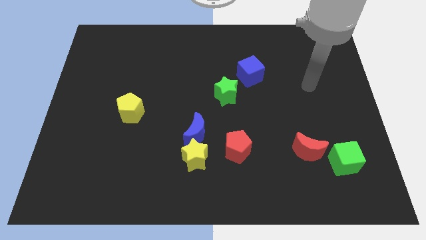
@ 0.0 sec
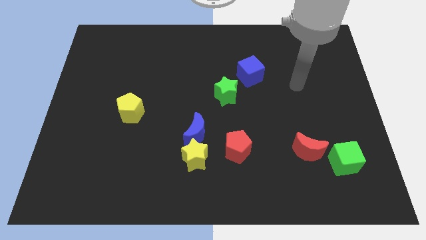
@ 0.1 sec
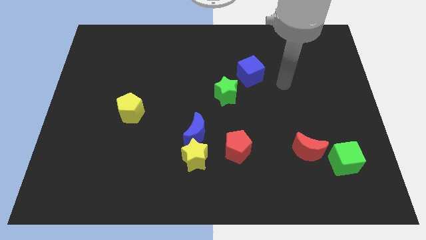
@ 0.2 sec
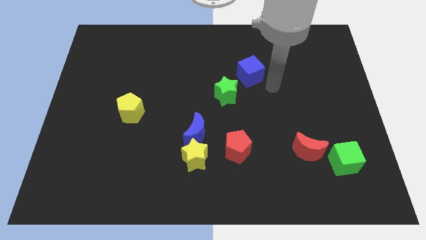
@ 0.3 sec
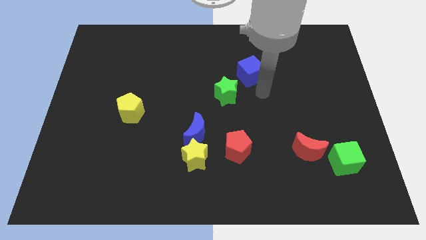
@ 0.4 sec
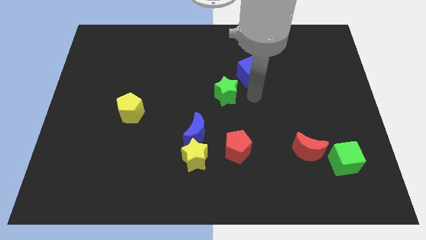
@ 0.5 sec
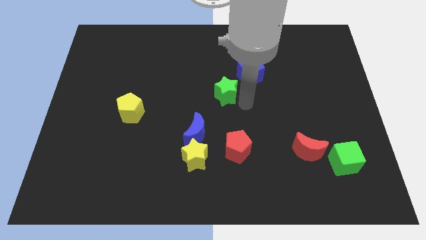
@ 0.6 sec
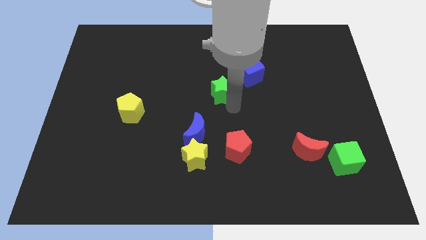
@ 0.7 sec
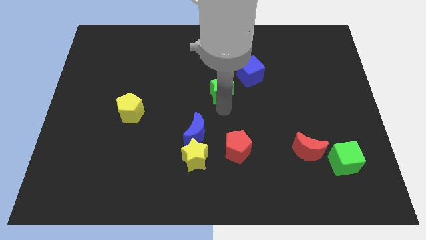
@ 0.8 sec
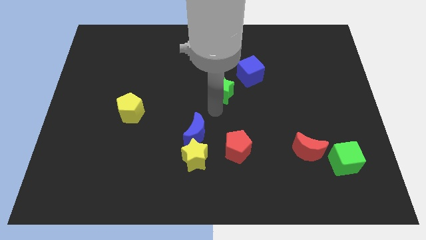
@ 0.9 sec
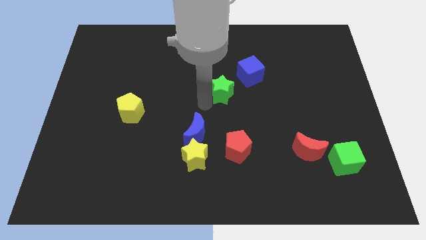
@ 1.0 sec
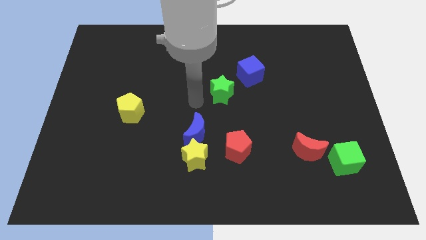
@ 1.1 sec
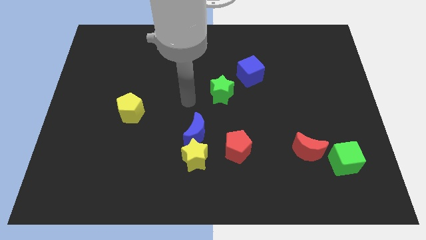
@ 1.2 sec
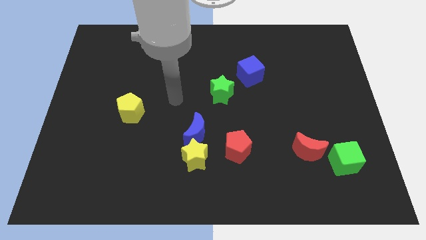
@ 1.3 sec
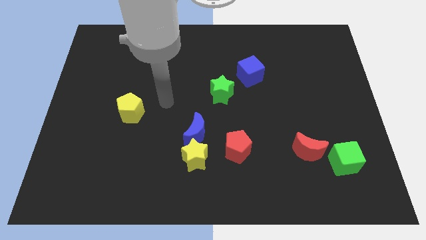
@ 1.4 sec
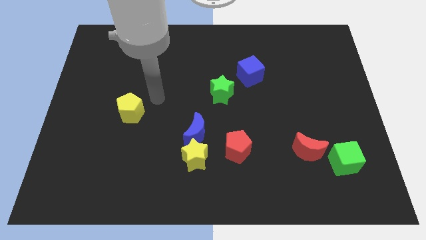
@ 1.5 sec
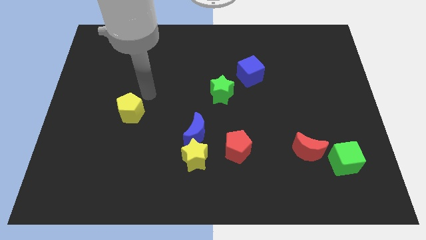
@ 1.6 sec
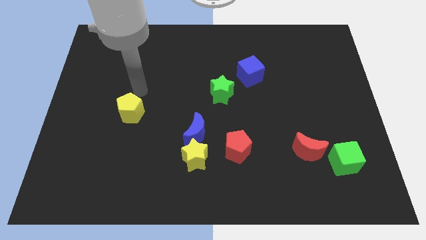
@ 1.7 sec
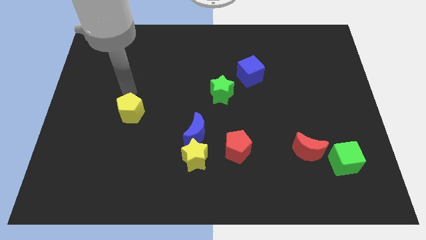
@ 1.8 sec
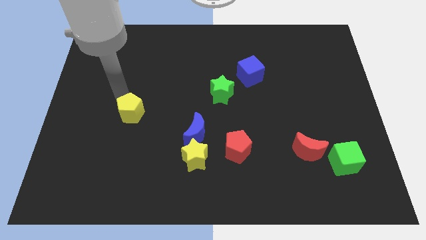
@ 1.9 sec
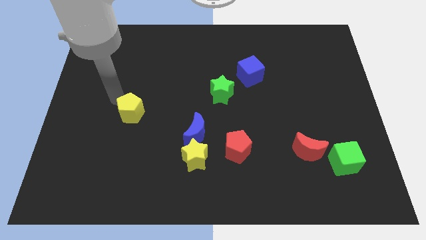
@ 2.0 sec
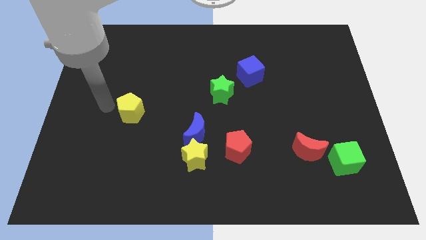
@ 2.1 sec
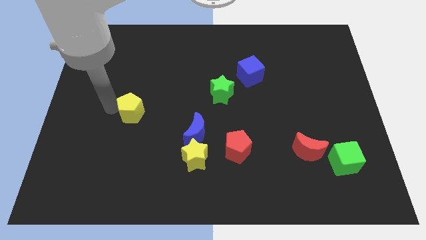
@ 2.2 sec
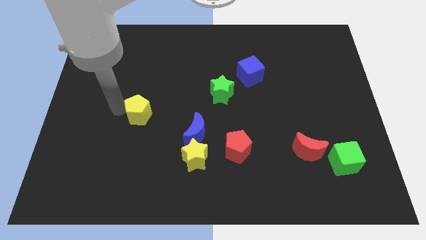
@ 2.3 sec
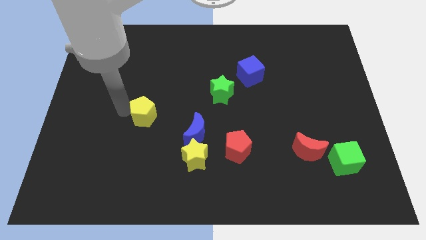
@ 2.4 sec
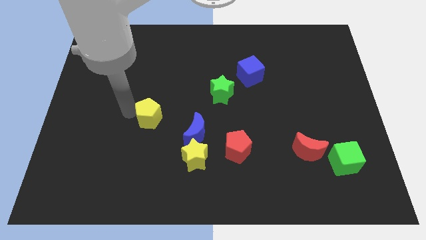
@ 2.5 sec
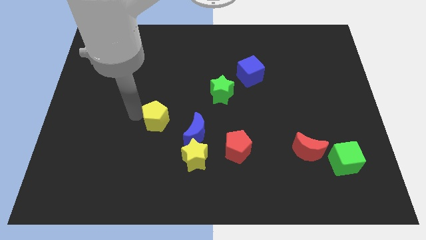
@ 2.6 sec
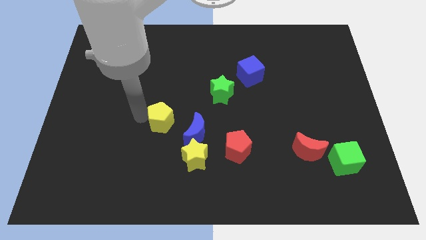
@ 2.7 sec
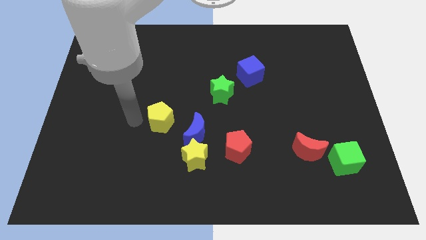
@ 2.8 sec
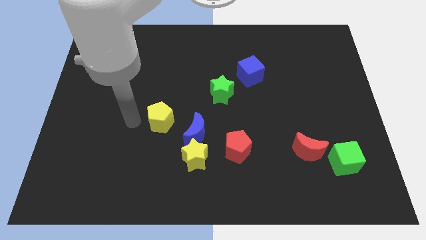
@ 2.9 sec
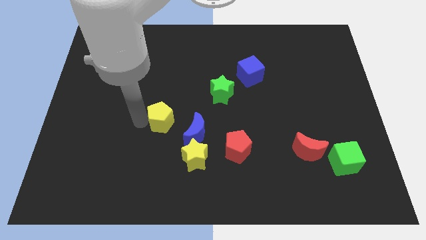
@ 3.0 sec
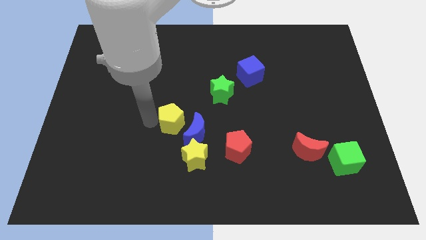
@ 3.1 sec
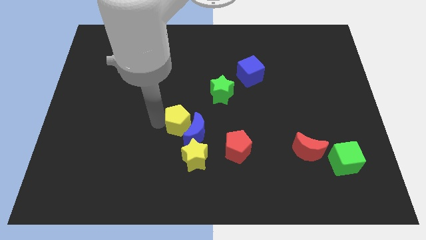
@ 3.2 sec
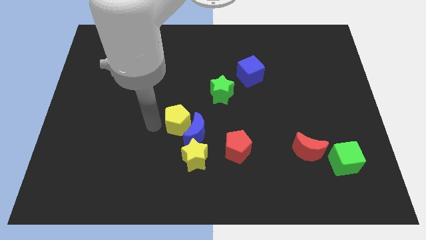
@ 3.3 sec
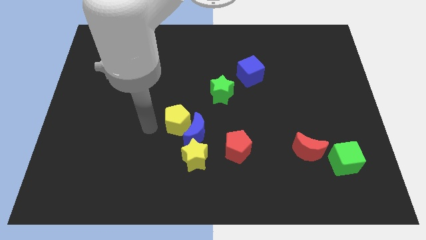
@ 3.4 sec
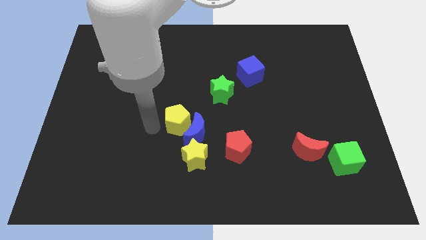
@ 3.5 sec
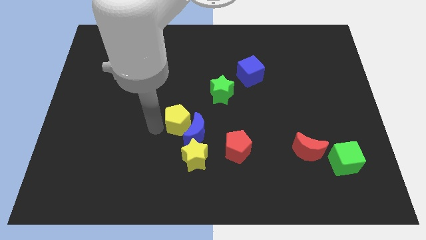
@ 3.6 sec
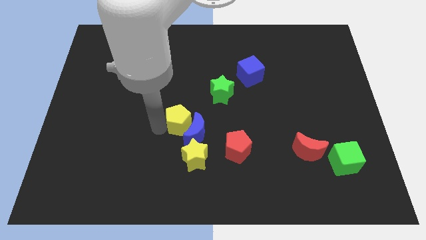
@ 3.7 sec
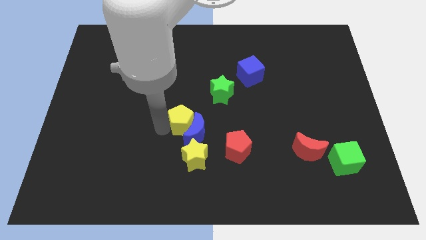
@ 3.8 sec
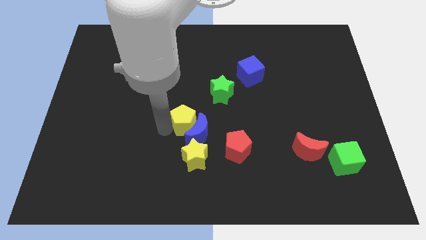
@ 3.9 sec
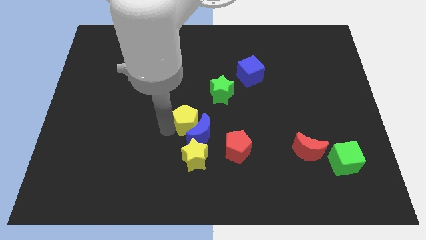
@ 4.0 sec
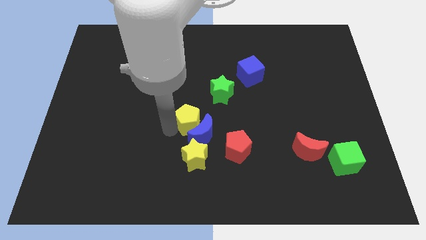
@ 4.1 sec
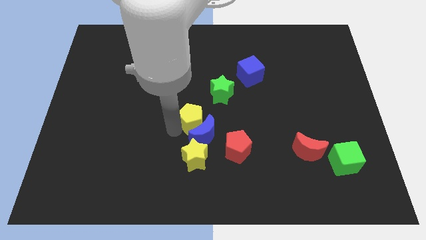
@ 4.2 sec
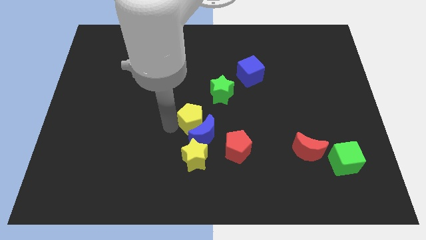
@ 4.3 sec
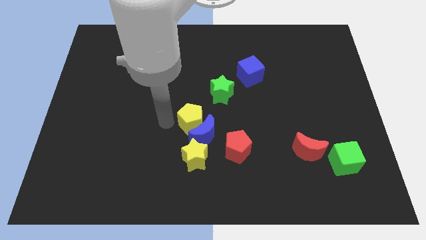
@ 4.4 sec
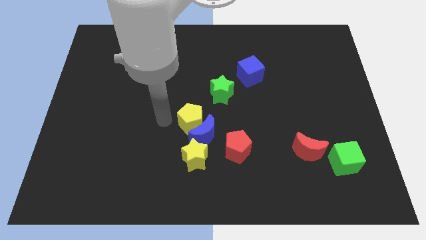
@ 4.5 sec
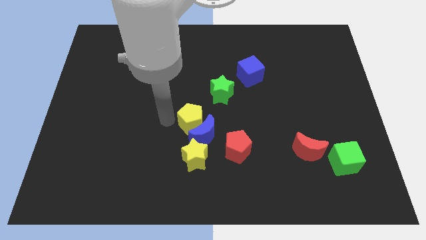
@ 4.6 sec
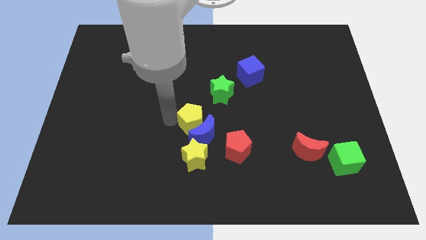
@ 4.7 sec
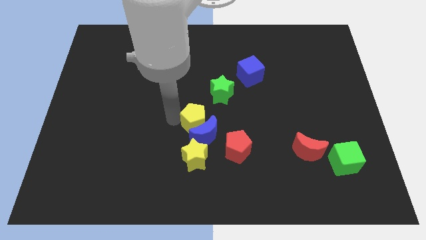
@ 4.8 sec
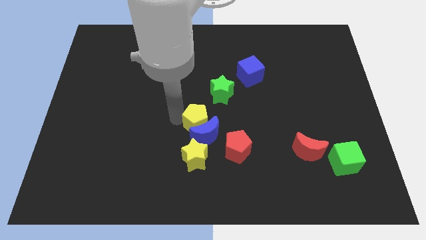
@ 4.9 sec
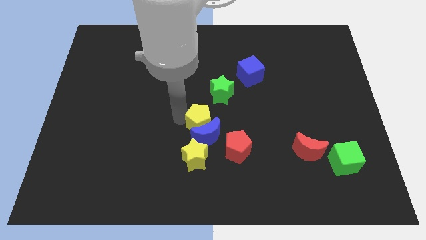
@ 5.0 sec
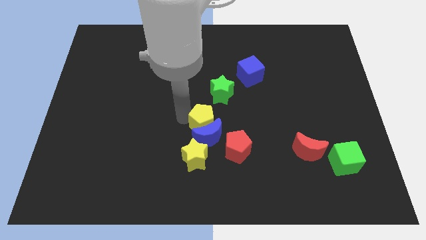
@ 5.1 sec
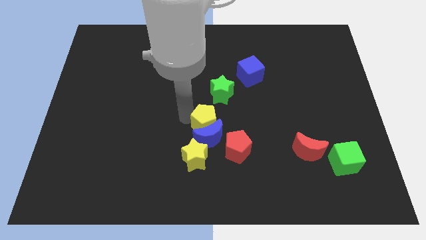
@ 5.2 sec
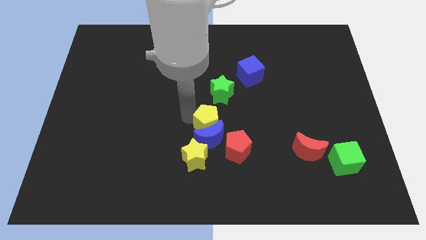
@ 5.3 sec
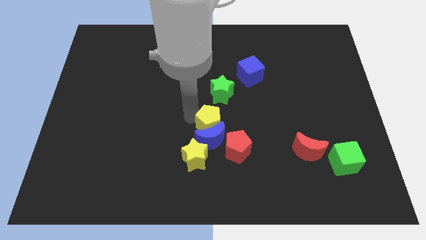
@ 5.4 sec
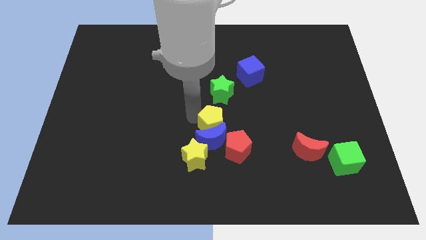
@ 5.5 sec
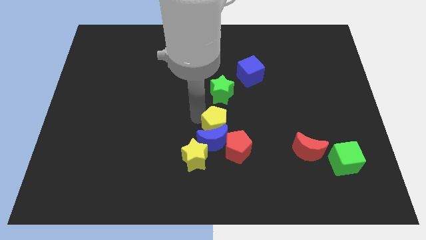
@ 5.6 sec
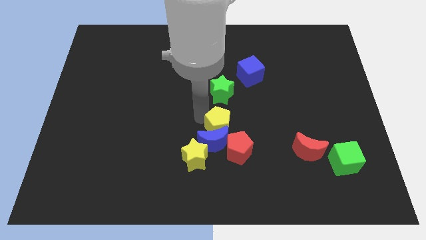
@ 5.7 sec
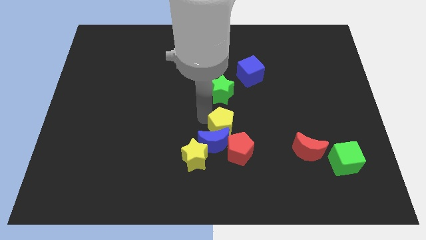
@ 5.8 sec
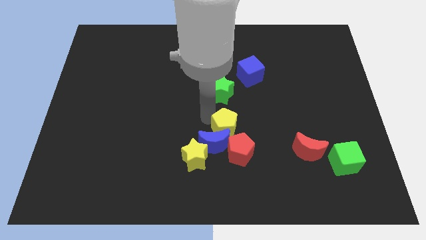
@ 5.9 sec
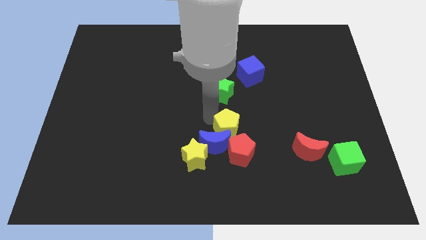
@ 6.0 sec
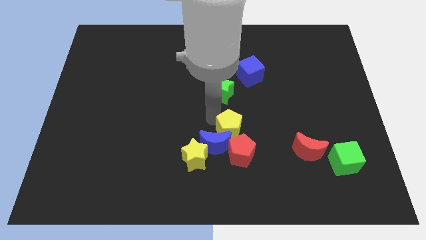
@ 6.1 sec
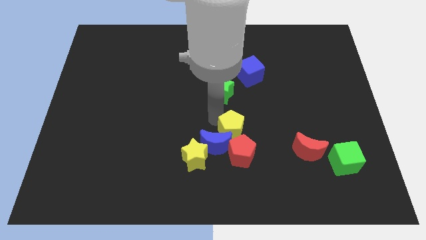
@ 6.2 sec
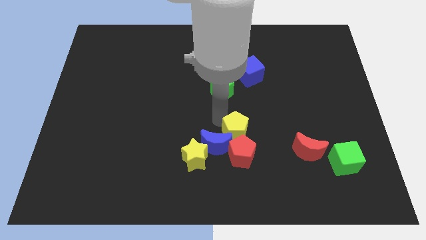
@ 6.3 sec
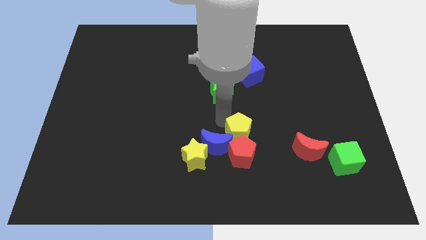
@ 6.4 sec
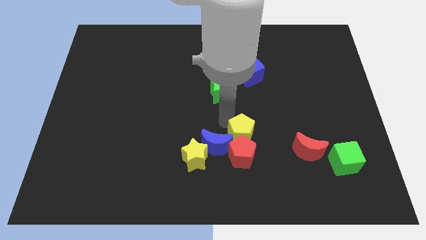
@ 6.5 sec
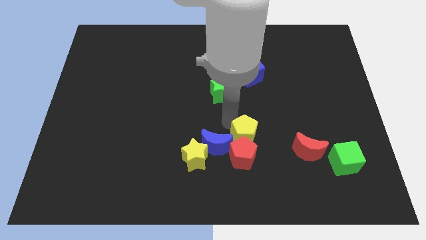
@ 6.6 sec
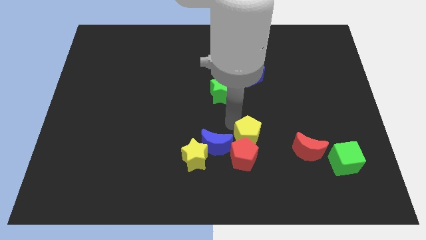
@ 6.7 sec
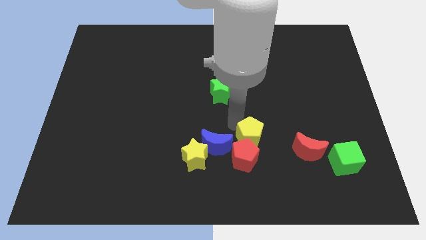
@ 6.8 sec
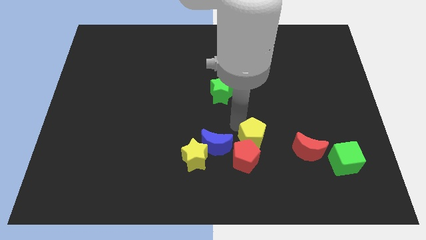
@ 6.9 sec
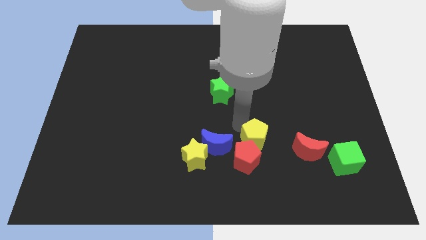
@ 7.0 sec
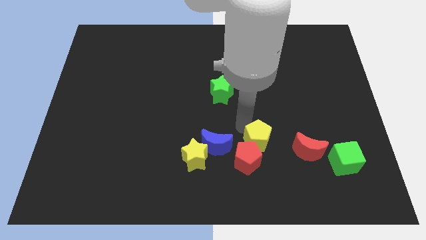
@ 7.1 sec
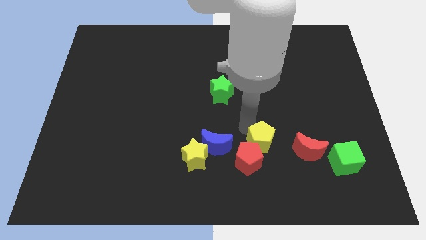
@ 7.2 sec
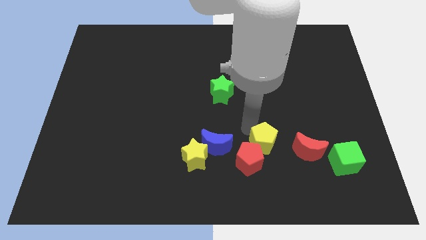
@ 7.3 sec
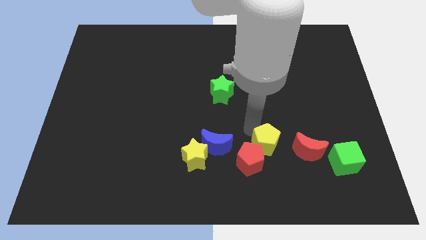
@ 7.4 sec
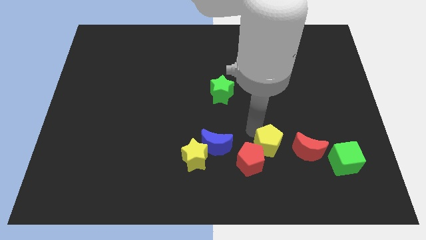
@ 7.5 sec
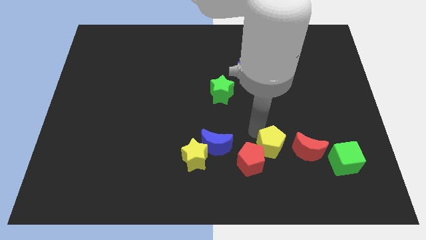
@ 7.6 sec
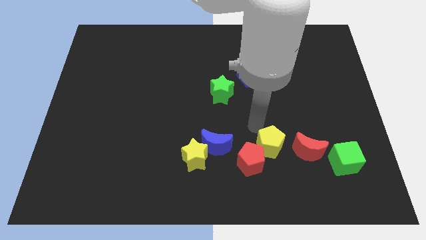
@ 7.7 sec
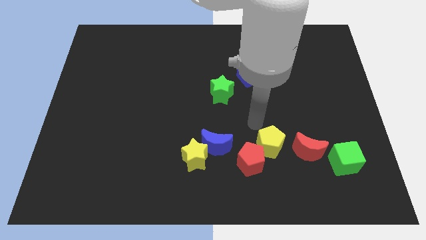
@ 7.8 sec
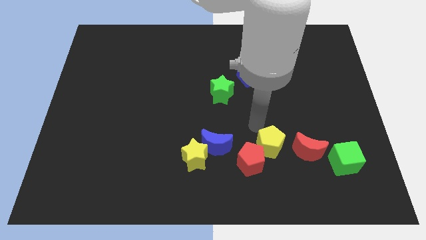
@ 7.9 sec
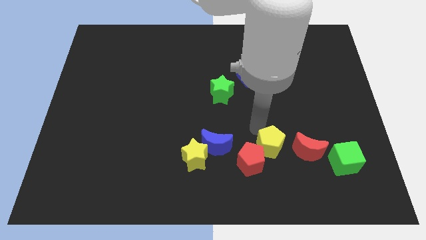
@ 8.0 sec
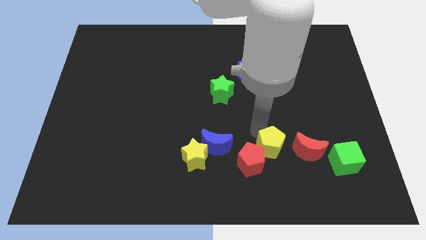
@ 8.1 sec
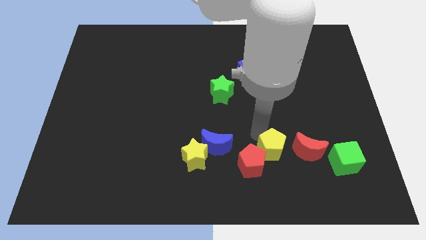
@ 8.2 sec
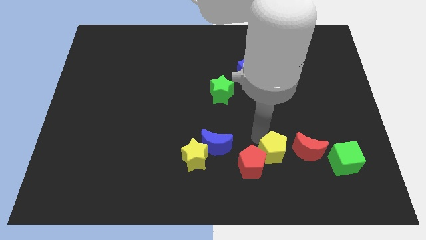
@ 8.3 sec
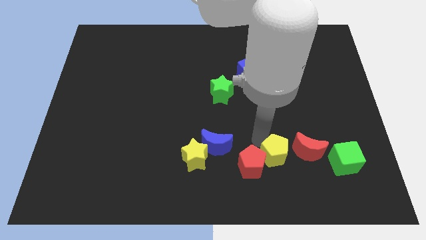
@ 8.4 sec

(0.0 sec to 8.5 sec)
slide the yellow pentagon to the bottom left side of the red moon
